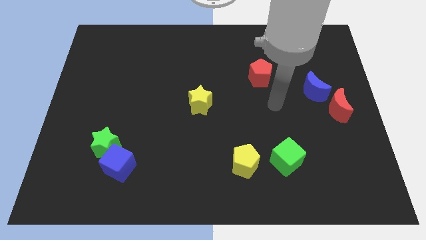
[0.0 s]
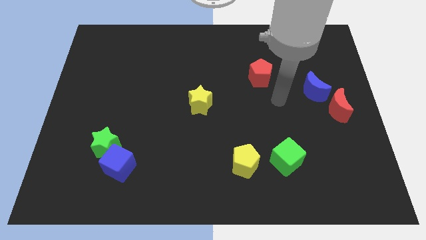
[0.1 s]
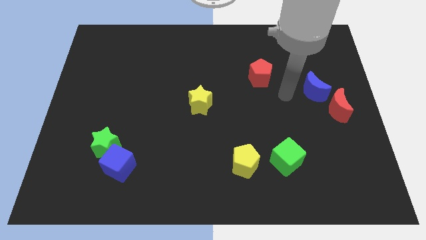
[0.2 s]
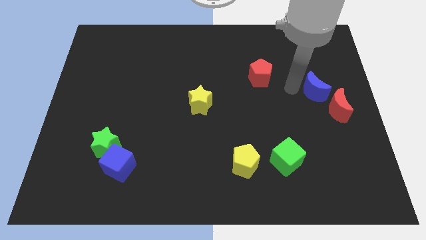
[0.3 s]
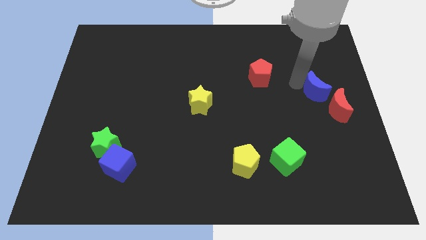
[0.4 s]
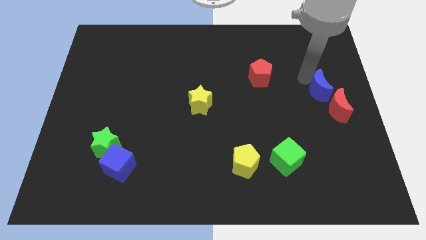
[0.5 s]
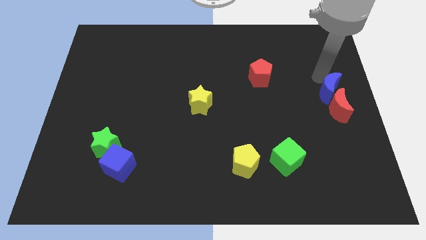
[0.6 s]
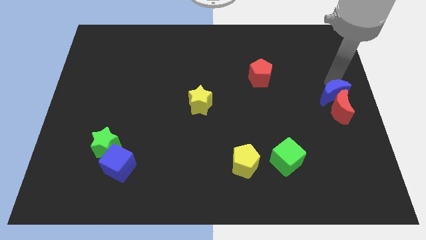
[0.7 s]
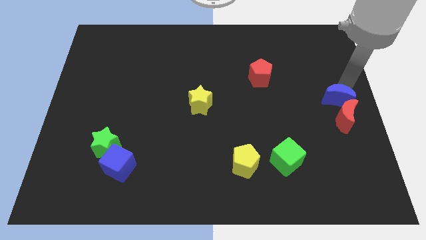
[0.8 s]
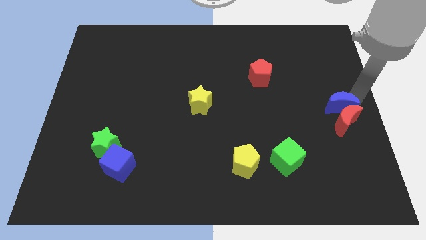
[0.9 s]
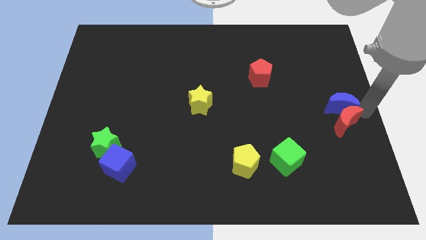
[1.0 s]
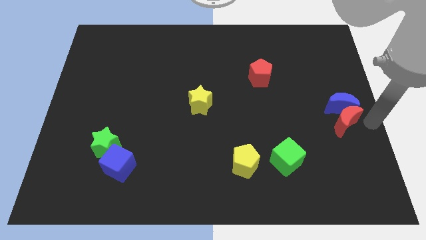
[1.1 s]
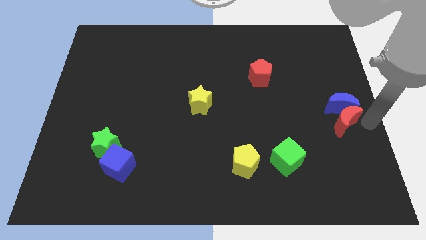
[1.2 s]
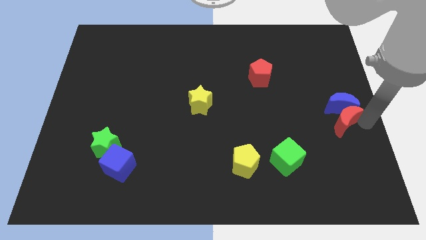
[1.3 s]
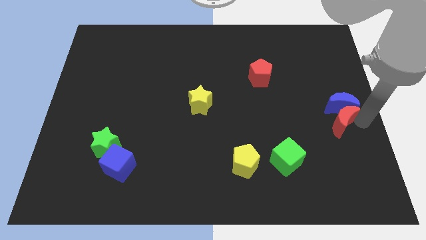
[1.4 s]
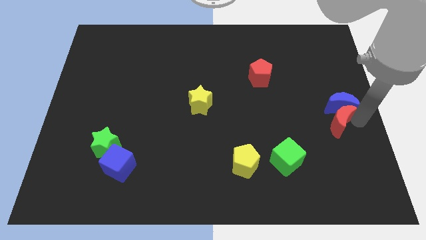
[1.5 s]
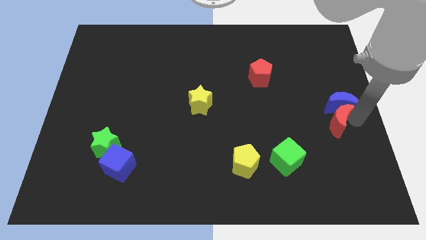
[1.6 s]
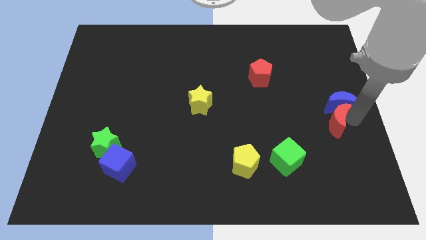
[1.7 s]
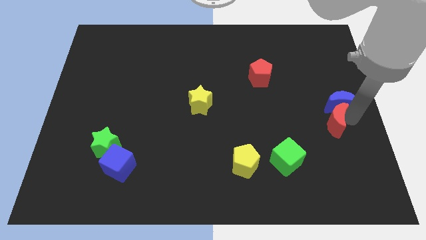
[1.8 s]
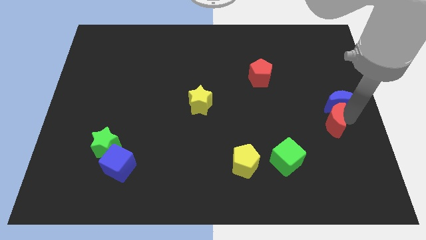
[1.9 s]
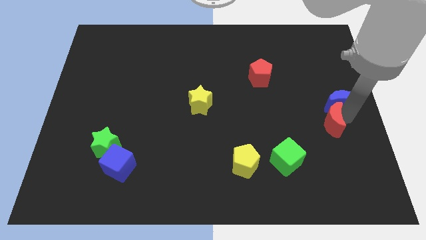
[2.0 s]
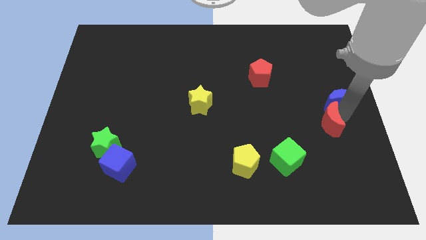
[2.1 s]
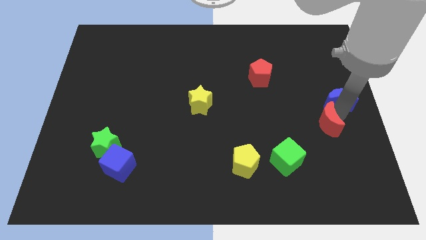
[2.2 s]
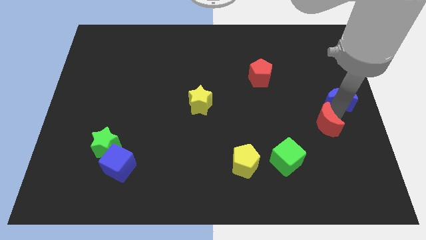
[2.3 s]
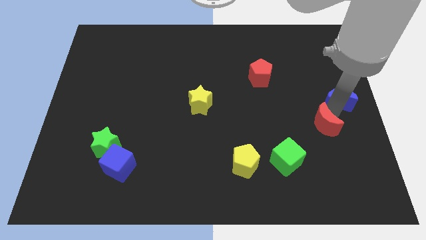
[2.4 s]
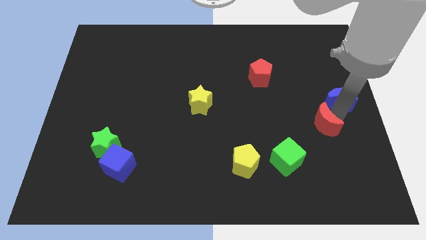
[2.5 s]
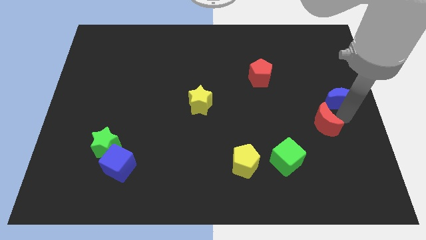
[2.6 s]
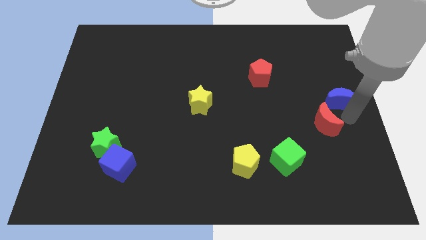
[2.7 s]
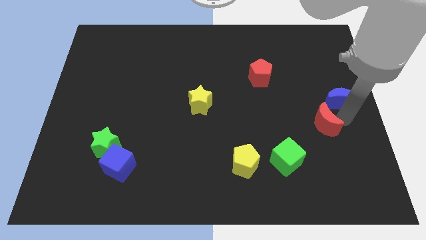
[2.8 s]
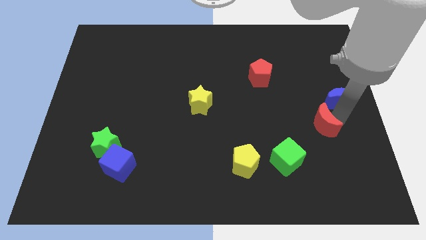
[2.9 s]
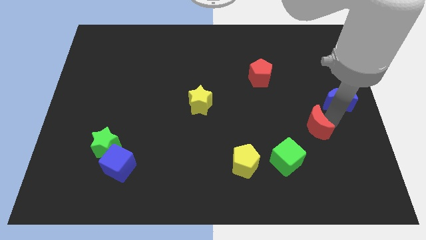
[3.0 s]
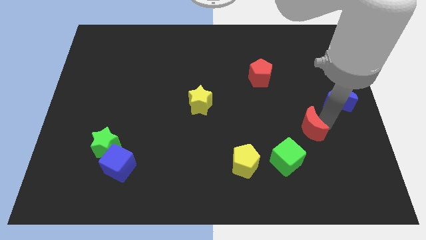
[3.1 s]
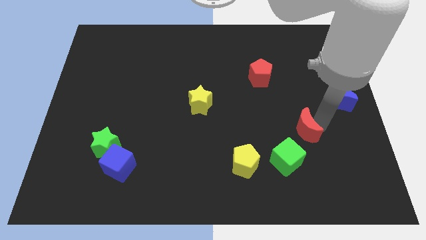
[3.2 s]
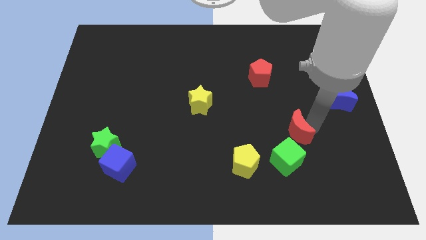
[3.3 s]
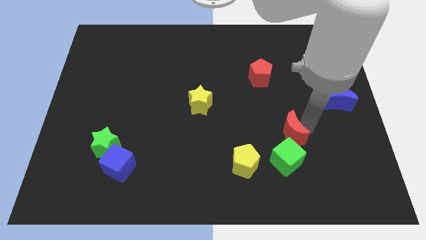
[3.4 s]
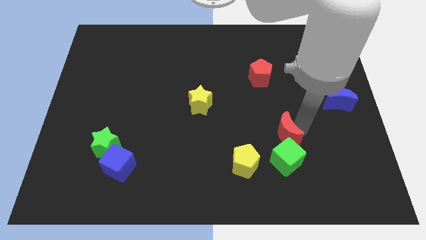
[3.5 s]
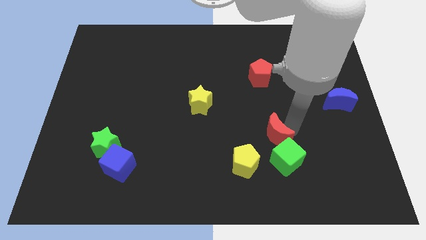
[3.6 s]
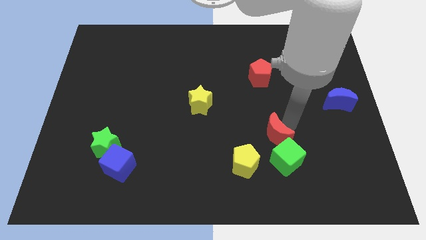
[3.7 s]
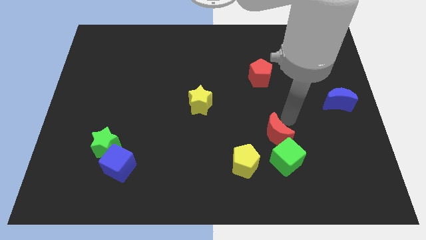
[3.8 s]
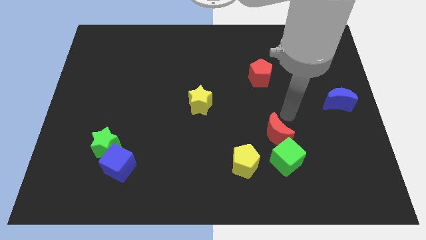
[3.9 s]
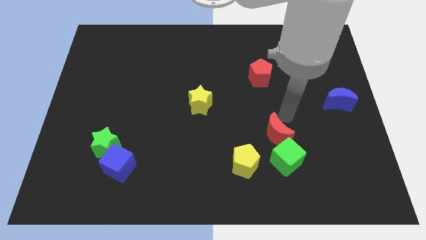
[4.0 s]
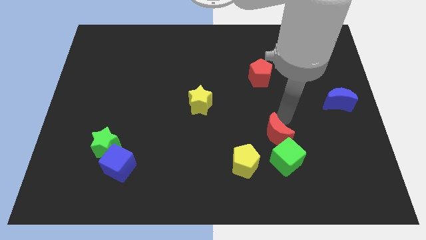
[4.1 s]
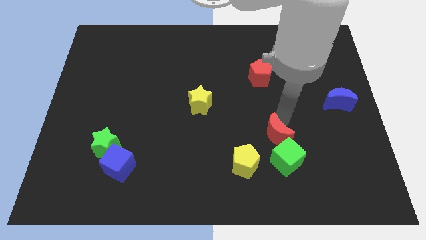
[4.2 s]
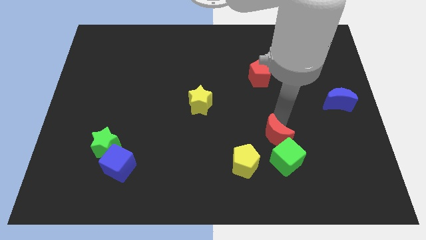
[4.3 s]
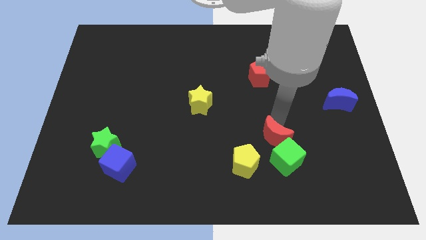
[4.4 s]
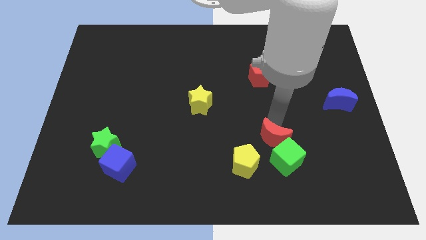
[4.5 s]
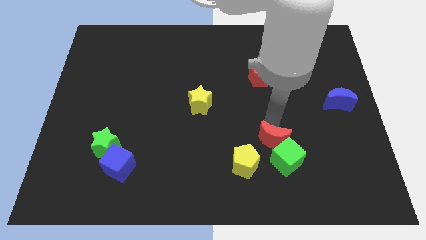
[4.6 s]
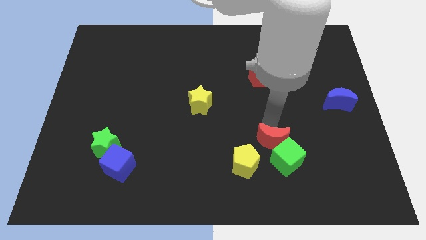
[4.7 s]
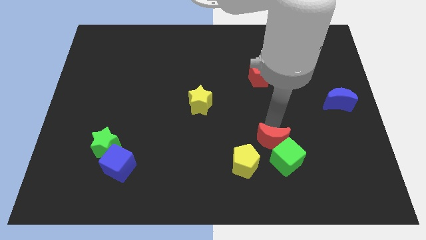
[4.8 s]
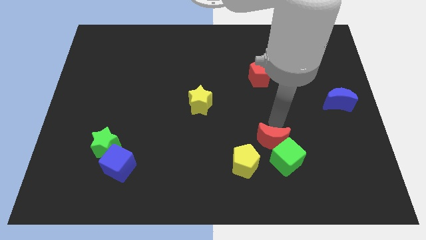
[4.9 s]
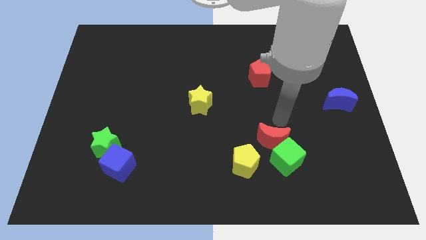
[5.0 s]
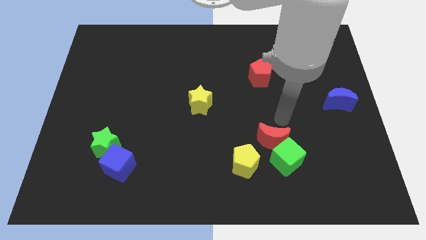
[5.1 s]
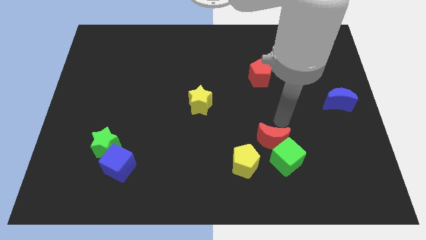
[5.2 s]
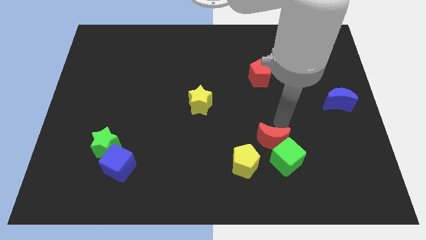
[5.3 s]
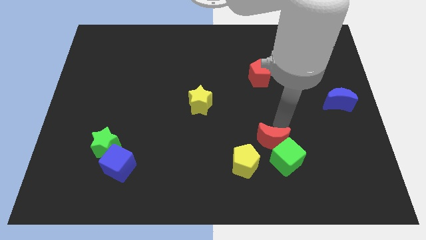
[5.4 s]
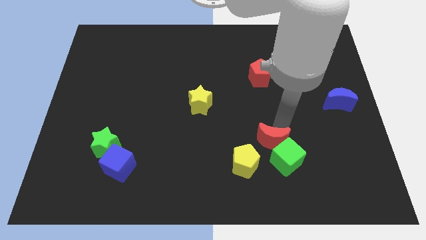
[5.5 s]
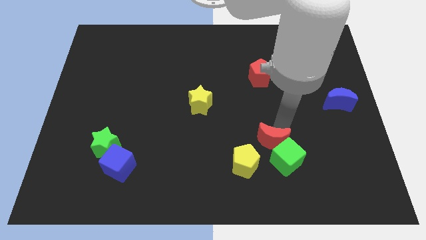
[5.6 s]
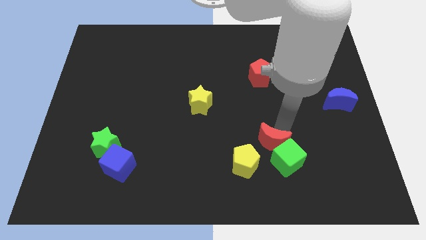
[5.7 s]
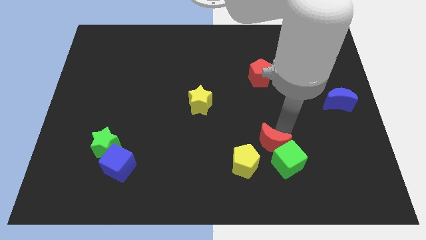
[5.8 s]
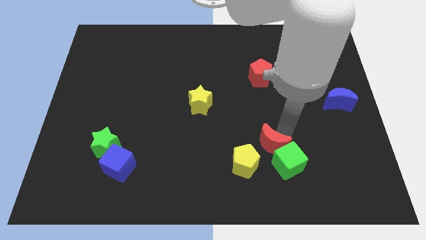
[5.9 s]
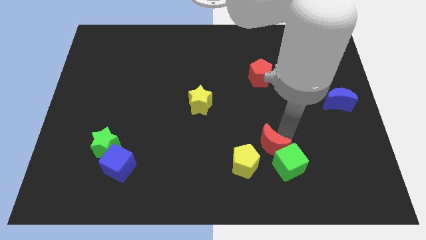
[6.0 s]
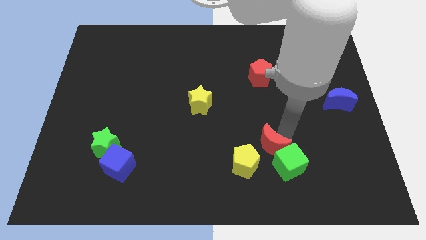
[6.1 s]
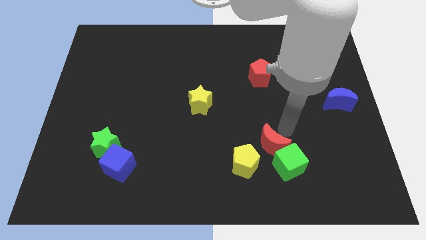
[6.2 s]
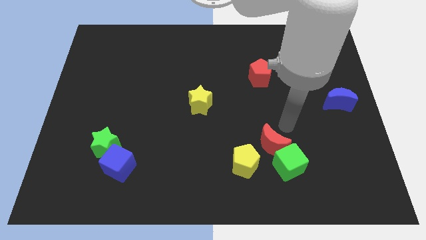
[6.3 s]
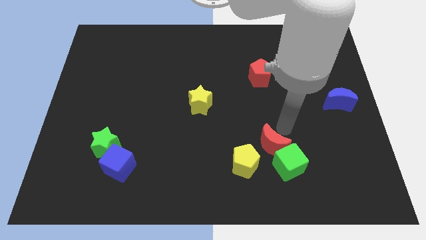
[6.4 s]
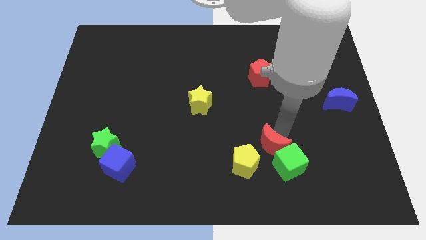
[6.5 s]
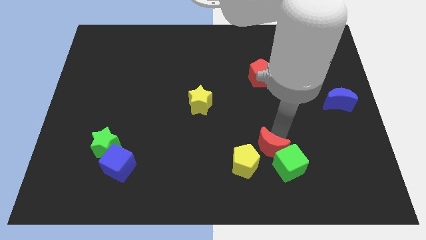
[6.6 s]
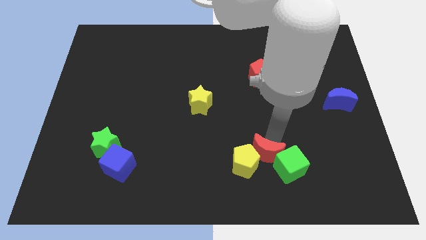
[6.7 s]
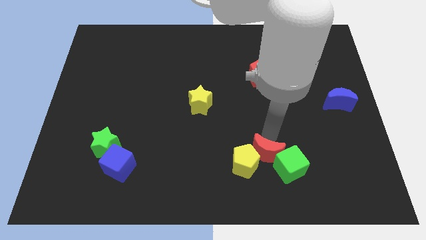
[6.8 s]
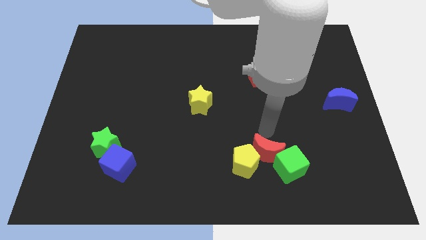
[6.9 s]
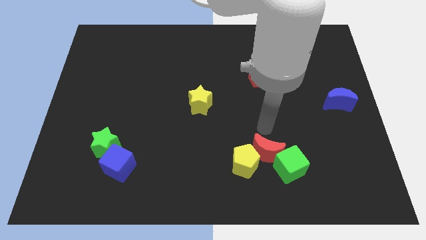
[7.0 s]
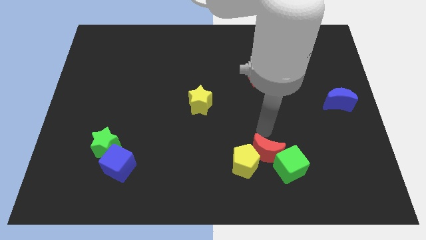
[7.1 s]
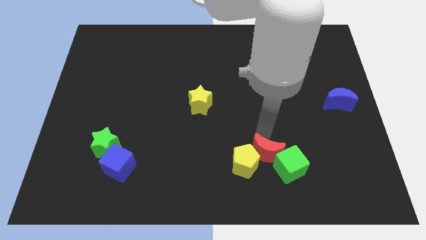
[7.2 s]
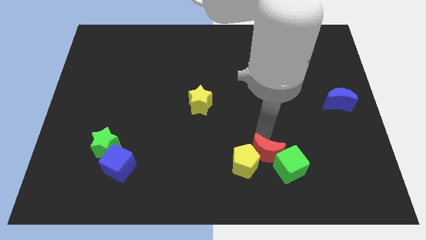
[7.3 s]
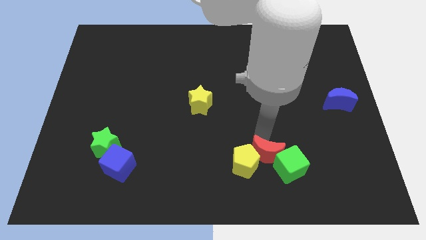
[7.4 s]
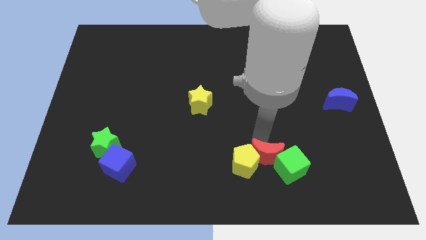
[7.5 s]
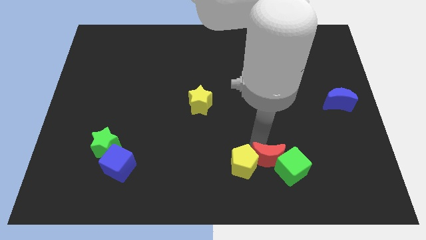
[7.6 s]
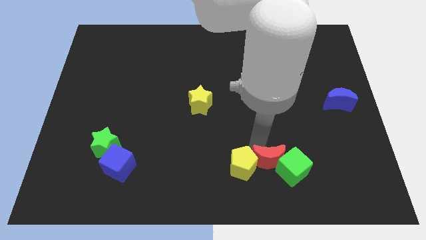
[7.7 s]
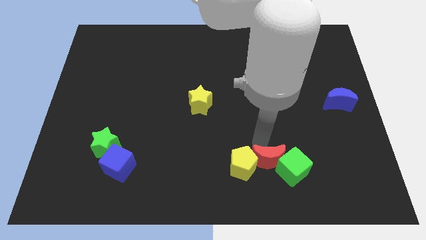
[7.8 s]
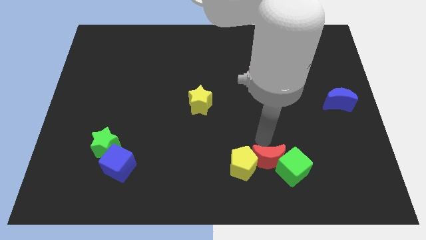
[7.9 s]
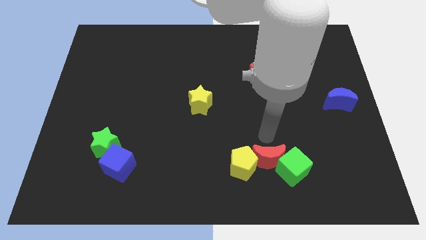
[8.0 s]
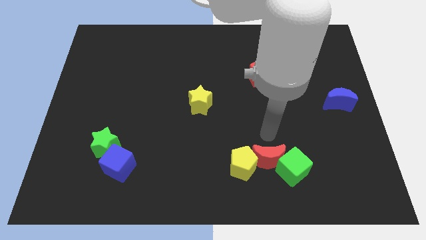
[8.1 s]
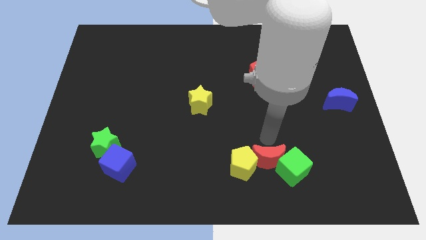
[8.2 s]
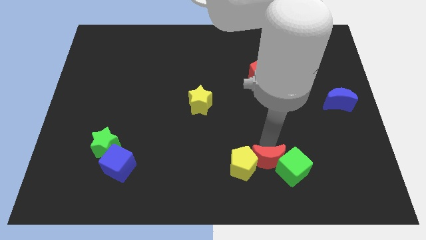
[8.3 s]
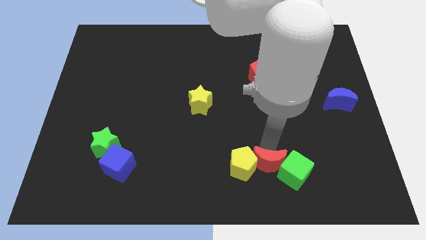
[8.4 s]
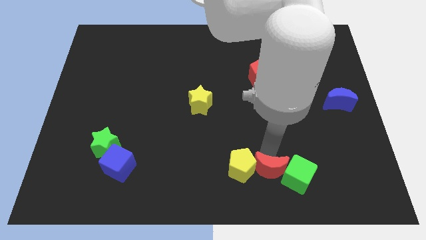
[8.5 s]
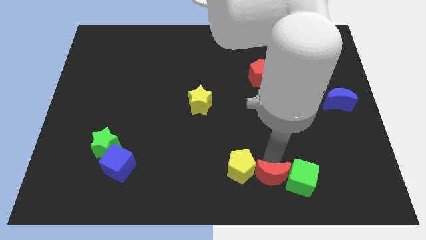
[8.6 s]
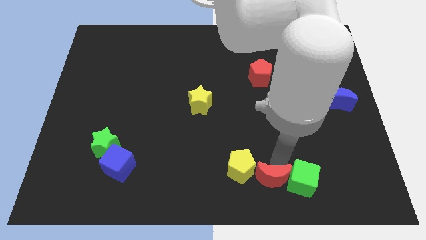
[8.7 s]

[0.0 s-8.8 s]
slide the red moon to the bottom side
